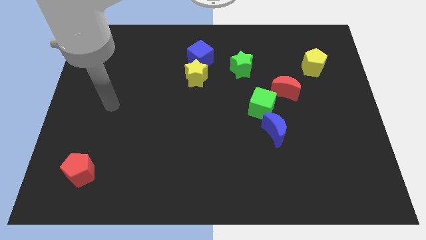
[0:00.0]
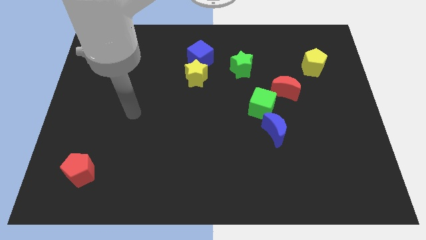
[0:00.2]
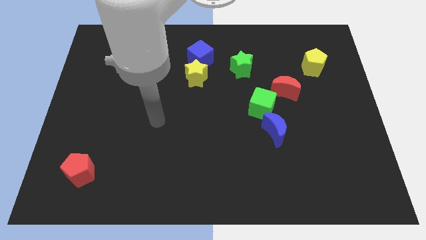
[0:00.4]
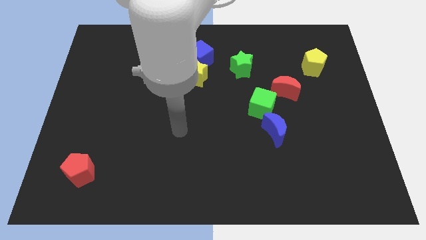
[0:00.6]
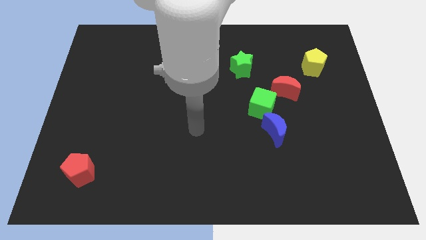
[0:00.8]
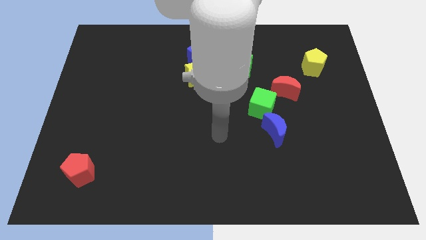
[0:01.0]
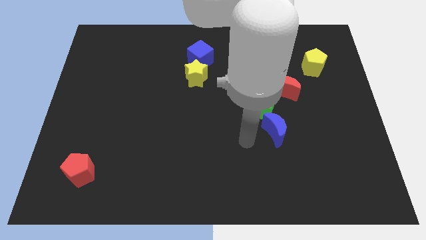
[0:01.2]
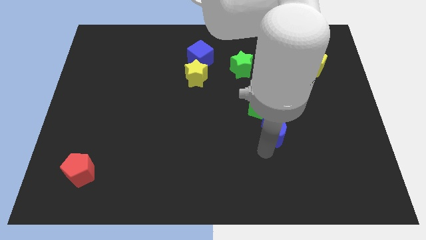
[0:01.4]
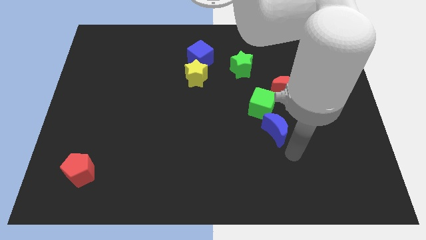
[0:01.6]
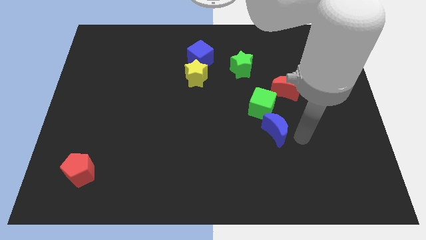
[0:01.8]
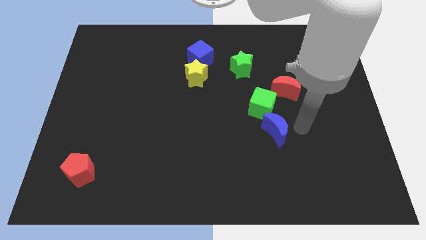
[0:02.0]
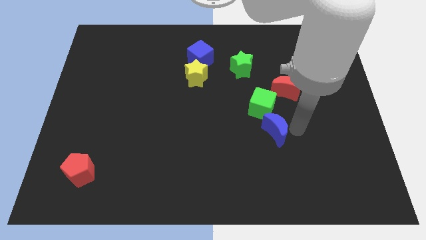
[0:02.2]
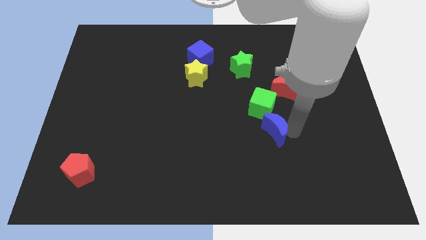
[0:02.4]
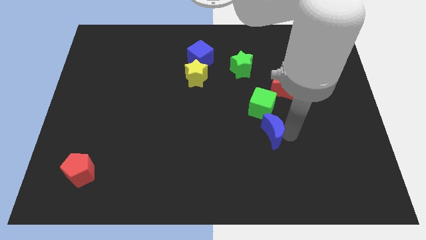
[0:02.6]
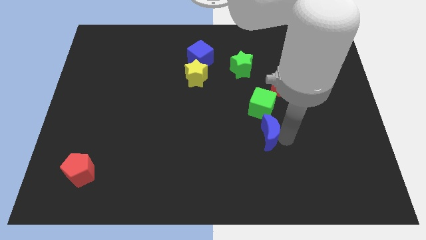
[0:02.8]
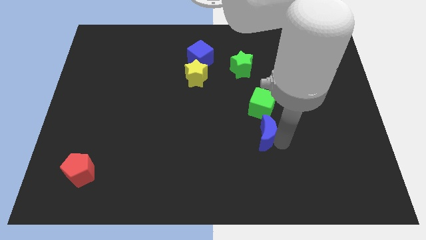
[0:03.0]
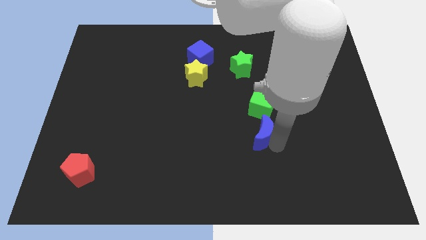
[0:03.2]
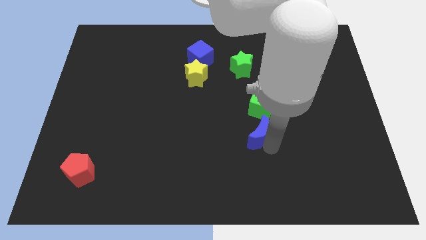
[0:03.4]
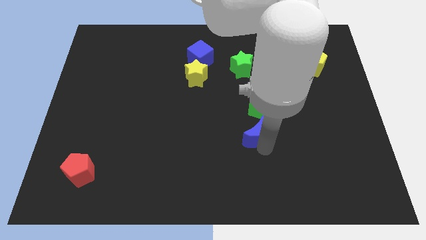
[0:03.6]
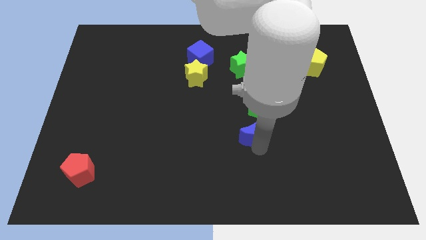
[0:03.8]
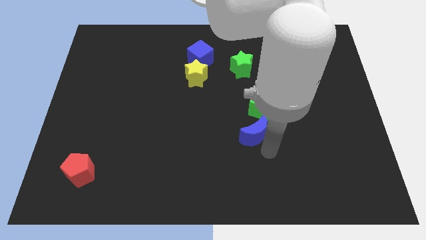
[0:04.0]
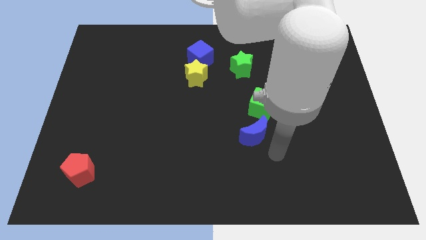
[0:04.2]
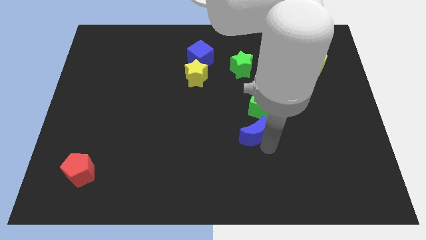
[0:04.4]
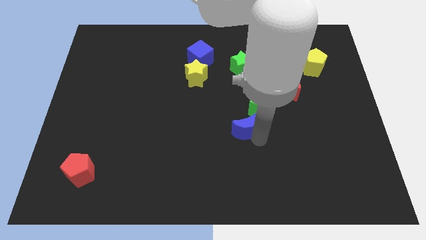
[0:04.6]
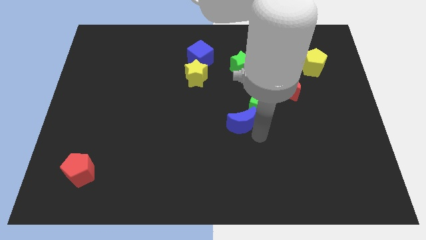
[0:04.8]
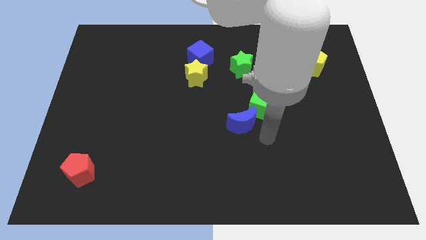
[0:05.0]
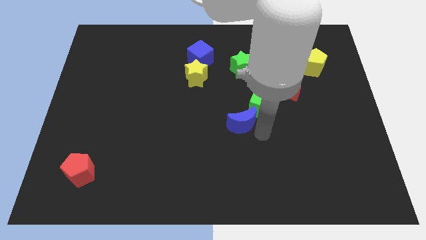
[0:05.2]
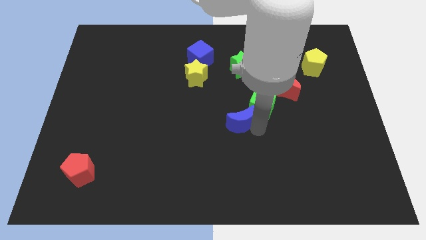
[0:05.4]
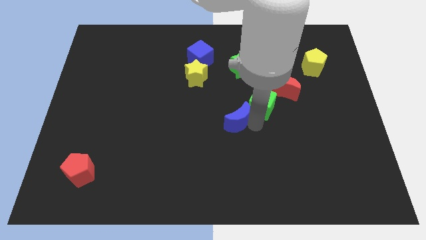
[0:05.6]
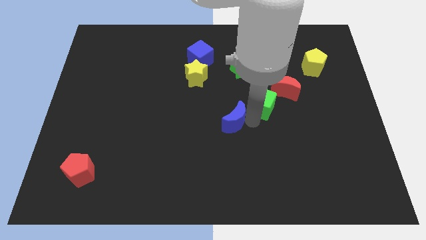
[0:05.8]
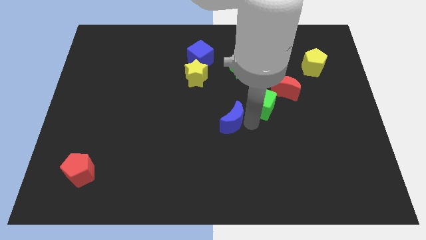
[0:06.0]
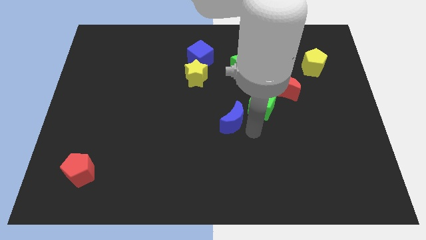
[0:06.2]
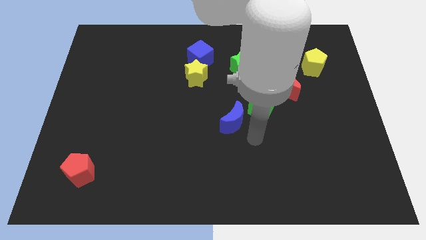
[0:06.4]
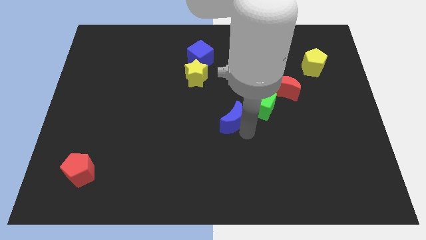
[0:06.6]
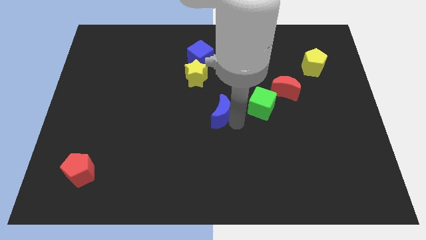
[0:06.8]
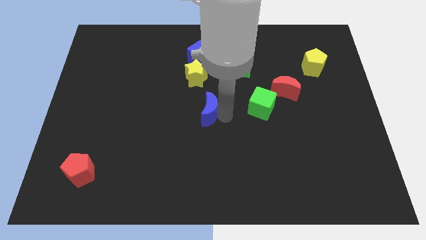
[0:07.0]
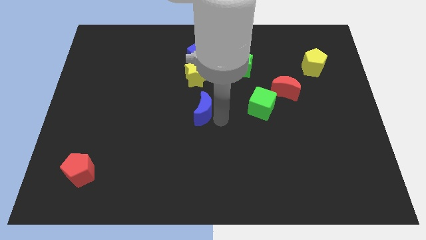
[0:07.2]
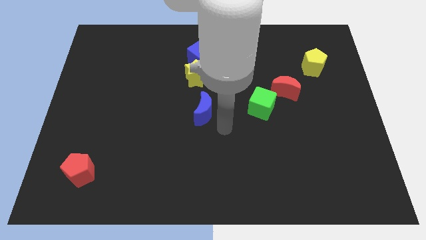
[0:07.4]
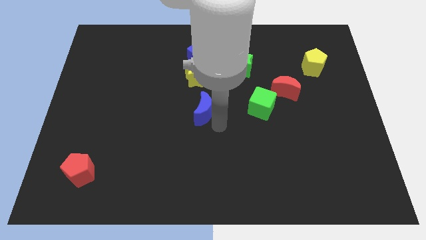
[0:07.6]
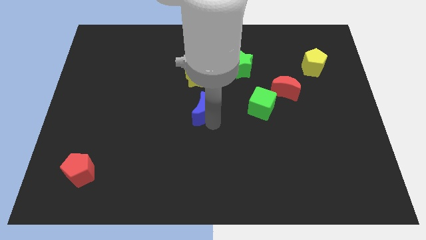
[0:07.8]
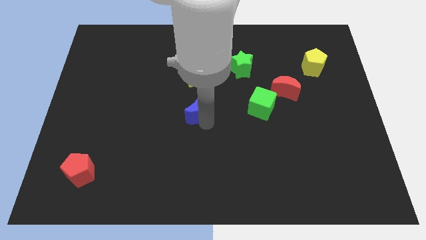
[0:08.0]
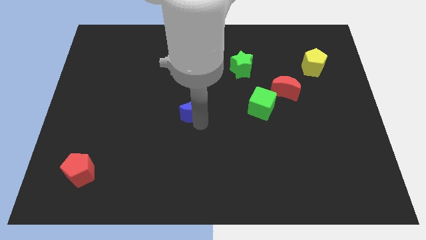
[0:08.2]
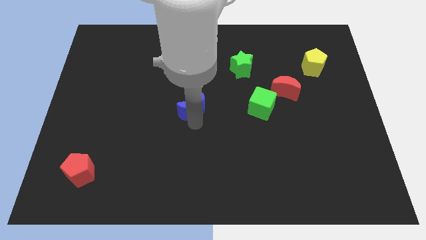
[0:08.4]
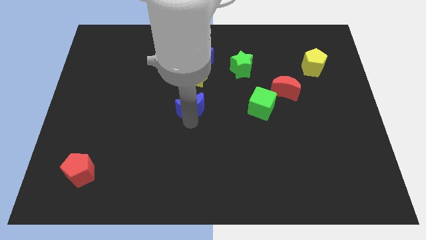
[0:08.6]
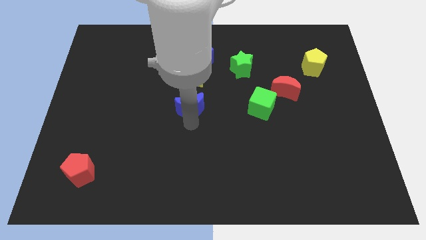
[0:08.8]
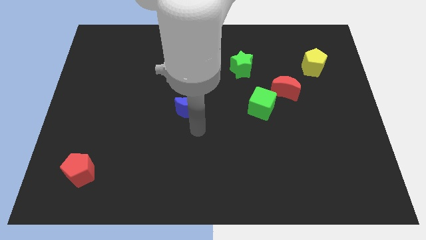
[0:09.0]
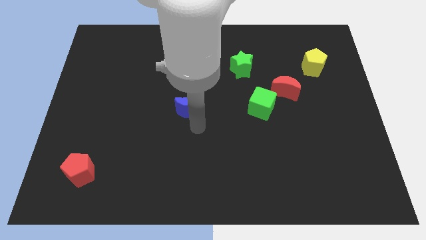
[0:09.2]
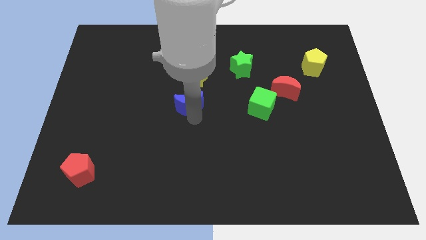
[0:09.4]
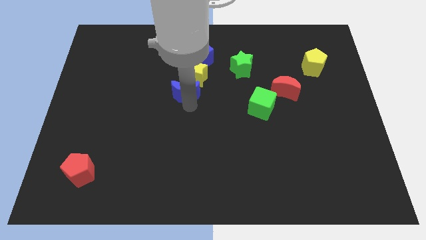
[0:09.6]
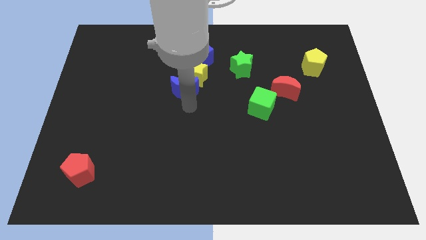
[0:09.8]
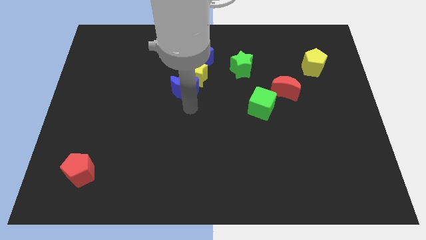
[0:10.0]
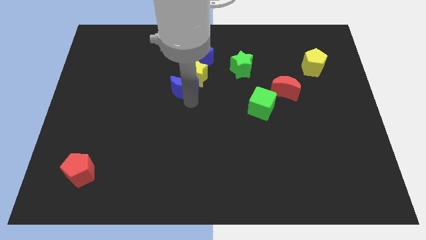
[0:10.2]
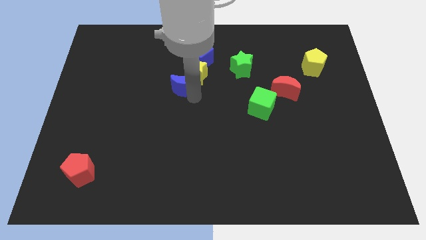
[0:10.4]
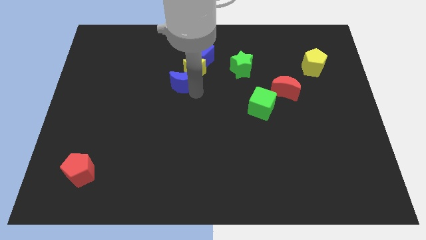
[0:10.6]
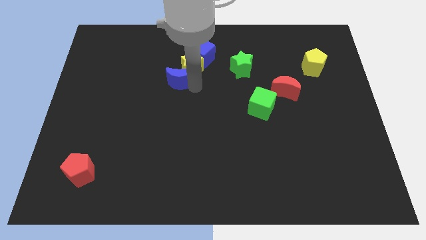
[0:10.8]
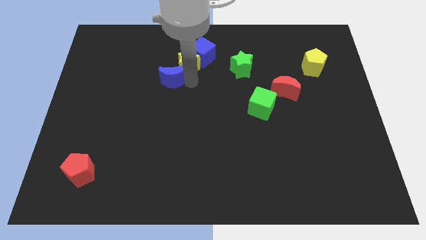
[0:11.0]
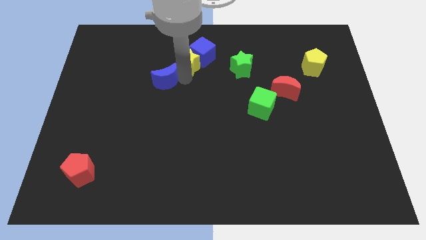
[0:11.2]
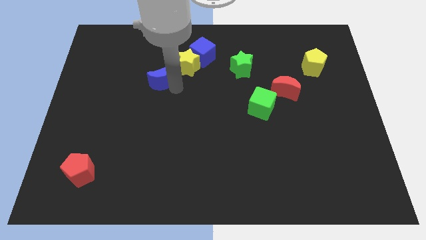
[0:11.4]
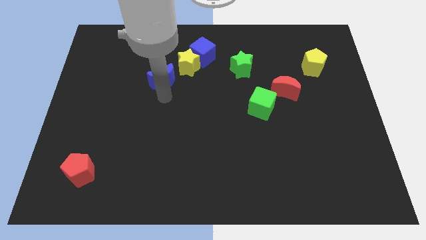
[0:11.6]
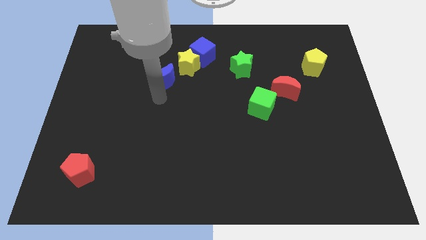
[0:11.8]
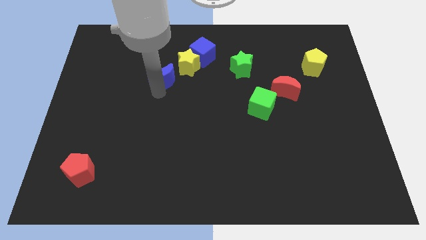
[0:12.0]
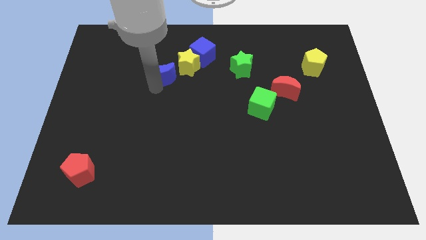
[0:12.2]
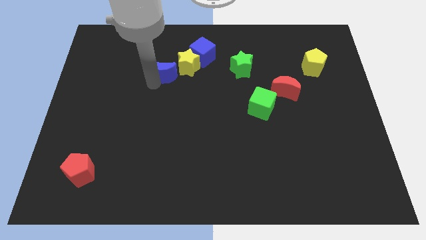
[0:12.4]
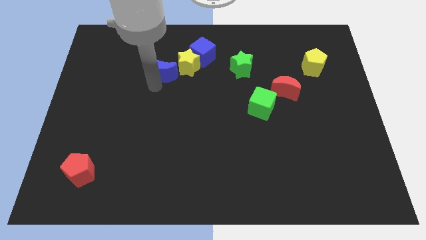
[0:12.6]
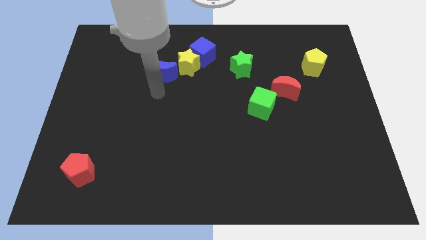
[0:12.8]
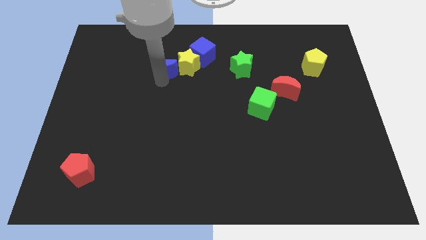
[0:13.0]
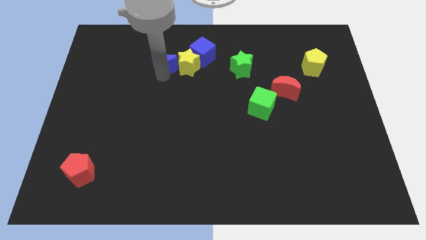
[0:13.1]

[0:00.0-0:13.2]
put the blue moon to the top left side of the yellow star
